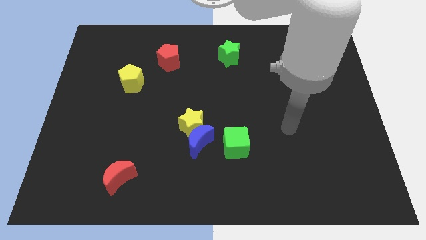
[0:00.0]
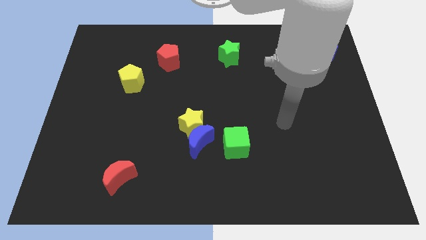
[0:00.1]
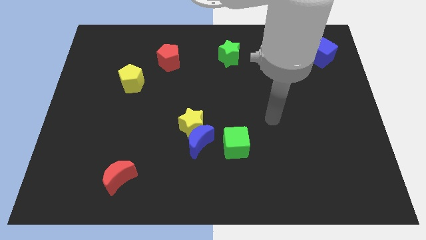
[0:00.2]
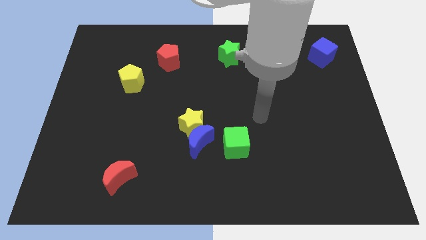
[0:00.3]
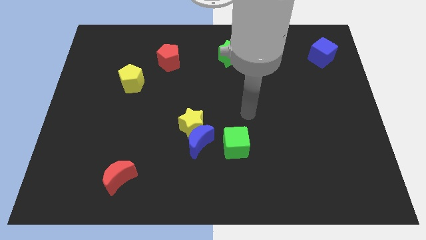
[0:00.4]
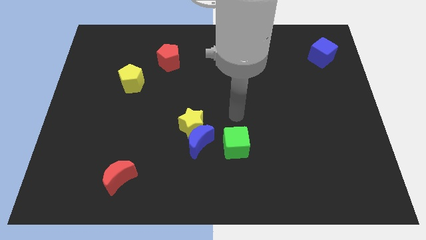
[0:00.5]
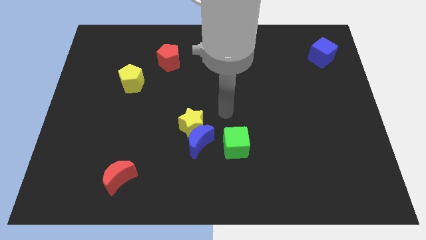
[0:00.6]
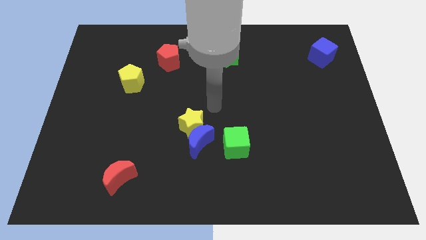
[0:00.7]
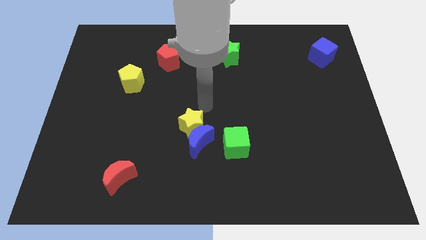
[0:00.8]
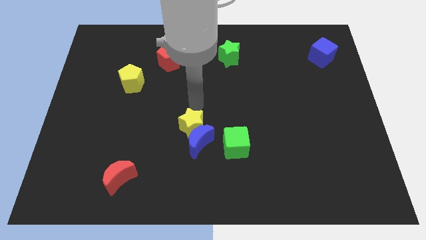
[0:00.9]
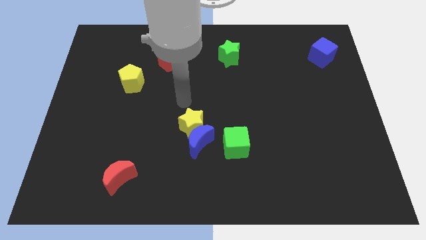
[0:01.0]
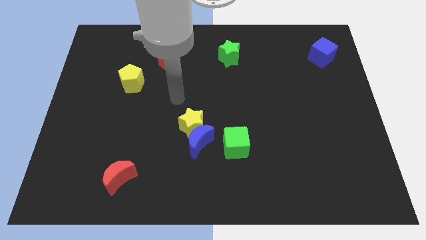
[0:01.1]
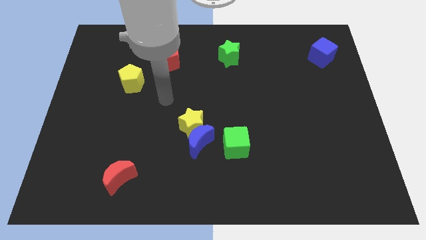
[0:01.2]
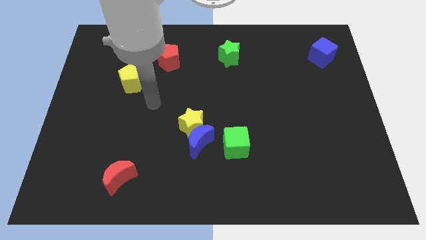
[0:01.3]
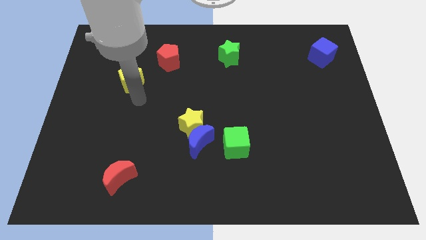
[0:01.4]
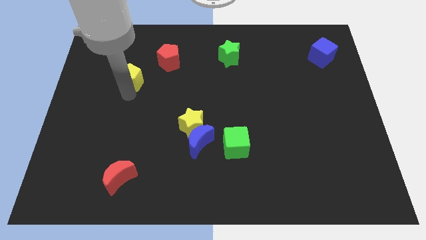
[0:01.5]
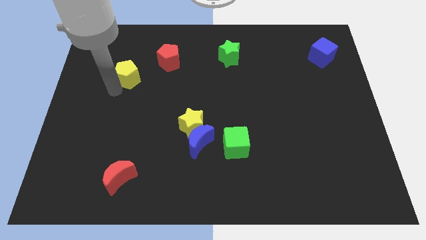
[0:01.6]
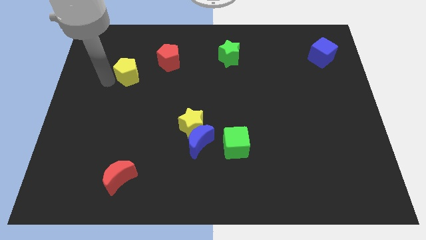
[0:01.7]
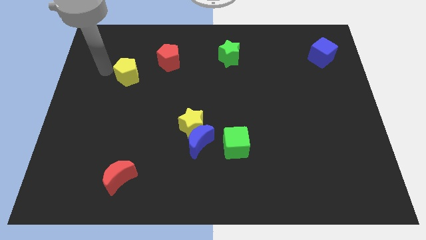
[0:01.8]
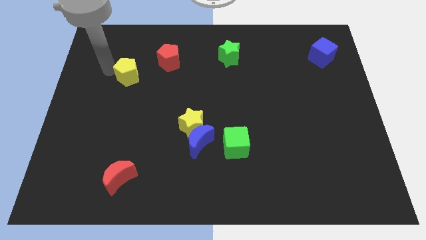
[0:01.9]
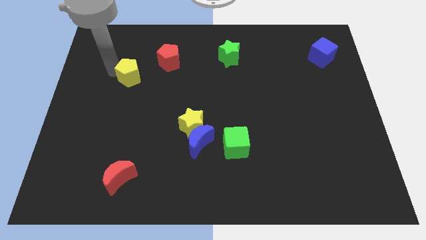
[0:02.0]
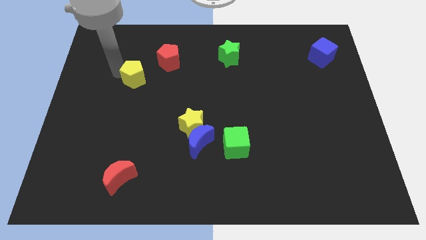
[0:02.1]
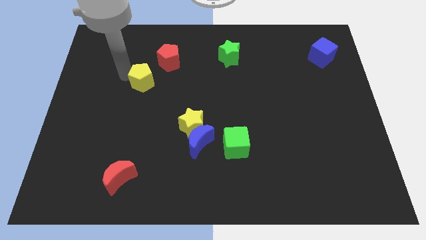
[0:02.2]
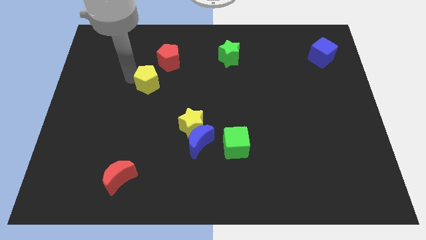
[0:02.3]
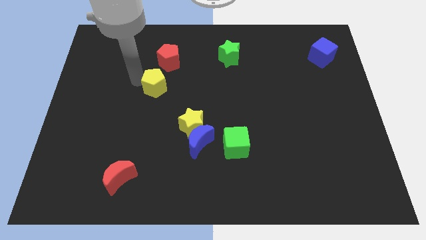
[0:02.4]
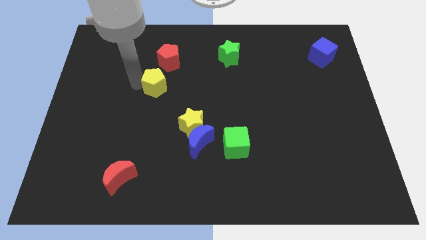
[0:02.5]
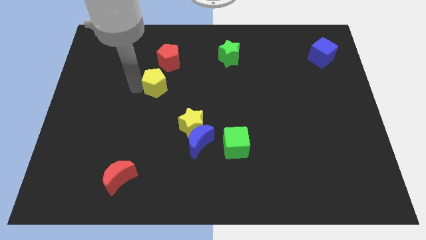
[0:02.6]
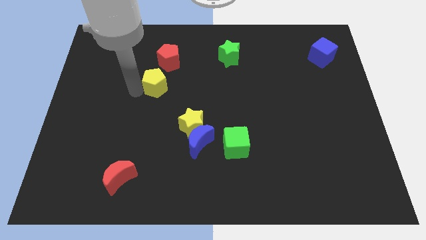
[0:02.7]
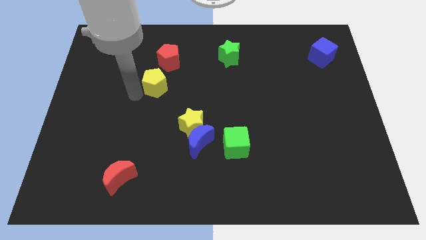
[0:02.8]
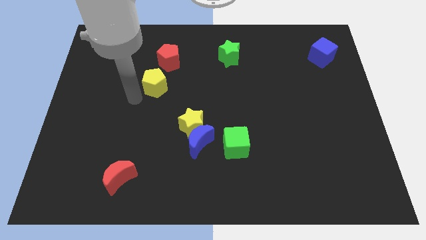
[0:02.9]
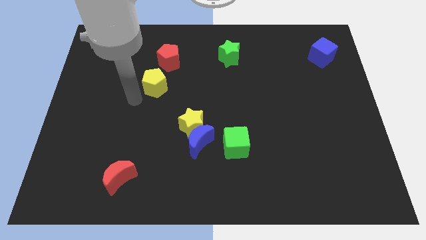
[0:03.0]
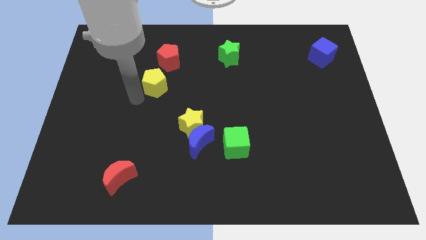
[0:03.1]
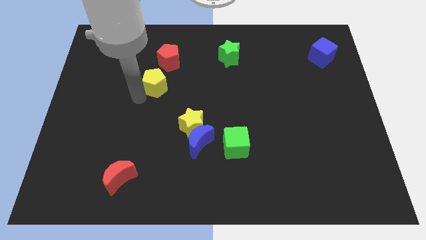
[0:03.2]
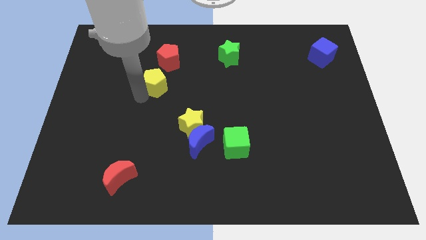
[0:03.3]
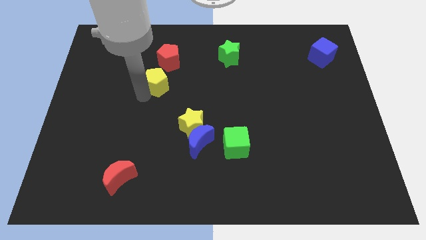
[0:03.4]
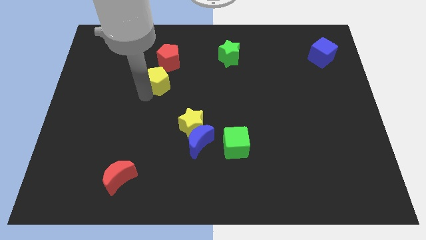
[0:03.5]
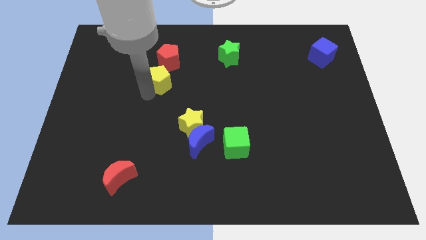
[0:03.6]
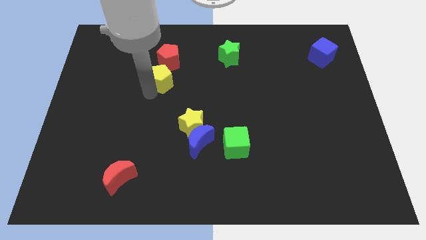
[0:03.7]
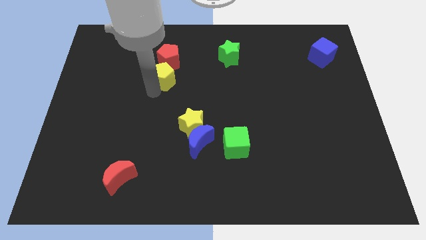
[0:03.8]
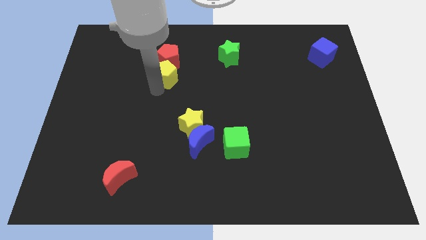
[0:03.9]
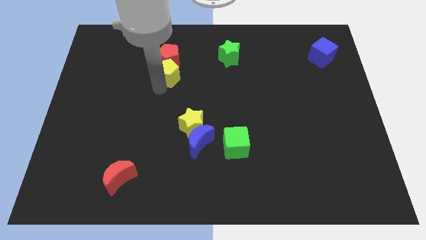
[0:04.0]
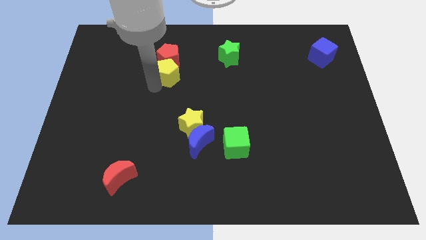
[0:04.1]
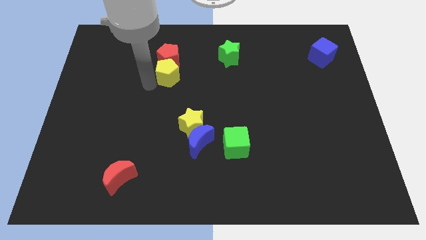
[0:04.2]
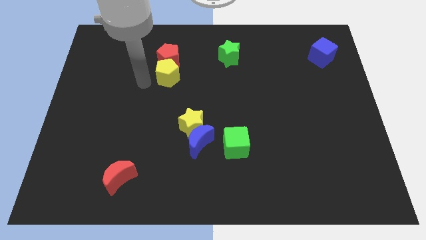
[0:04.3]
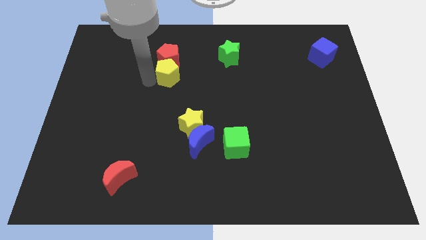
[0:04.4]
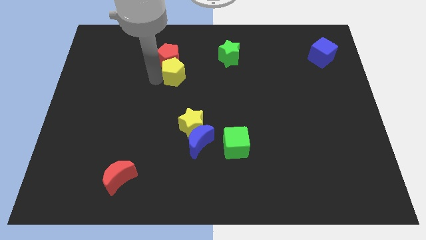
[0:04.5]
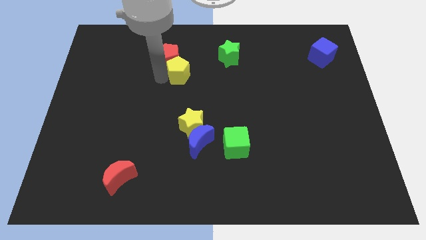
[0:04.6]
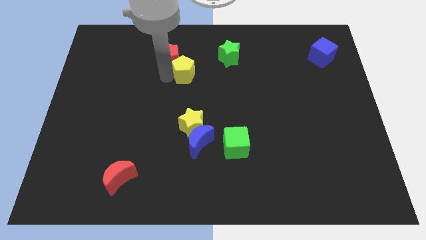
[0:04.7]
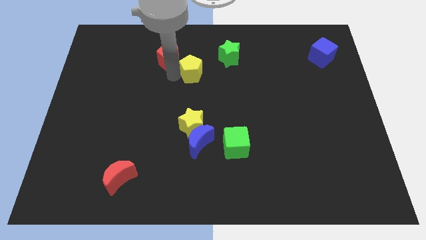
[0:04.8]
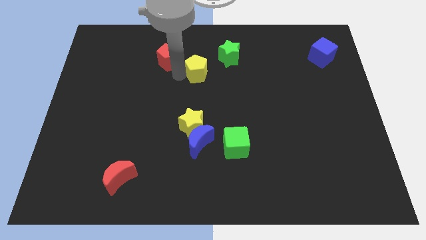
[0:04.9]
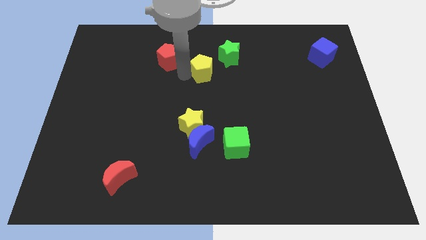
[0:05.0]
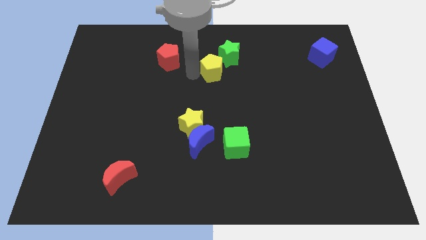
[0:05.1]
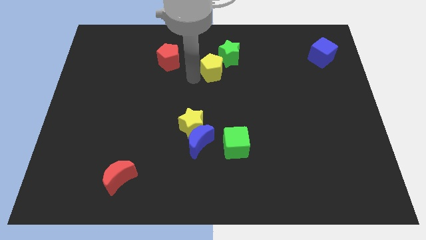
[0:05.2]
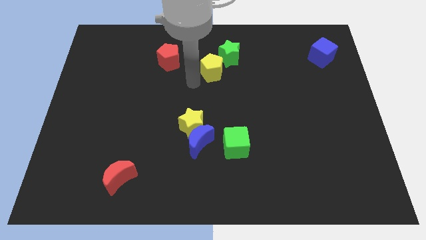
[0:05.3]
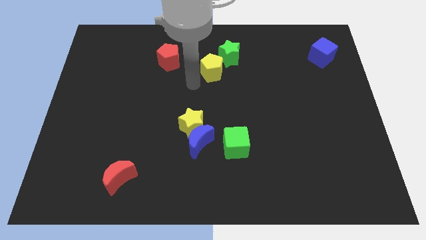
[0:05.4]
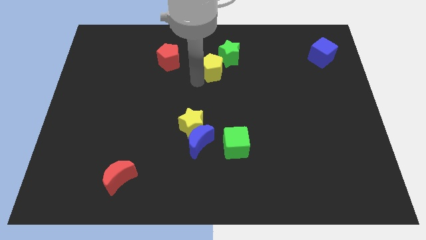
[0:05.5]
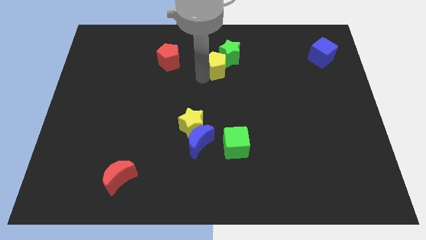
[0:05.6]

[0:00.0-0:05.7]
move the yellow pentagon close to the green star

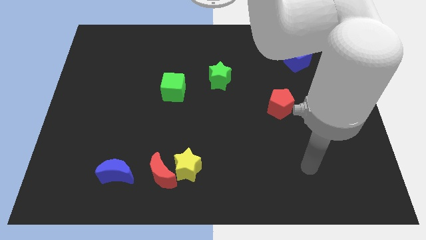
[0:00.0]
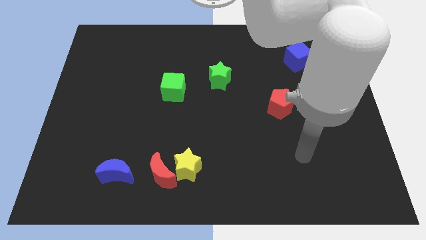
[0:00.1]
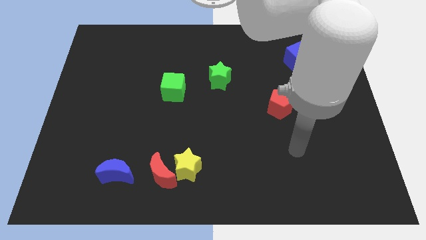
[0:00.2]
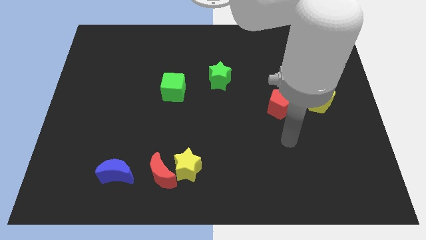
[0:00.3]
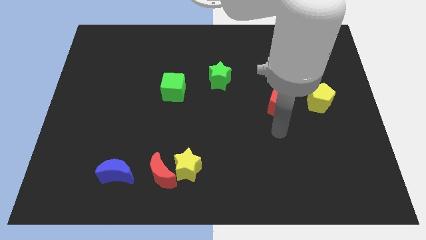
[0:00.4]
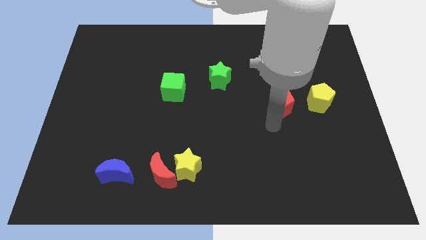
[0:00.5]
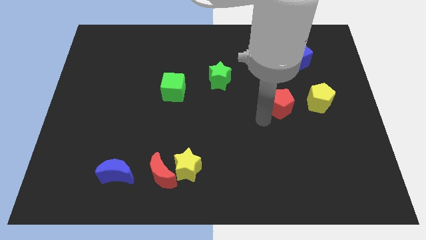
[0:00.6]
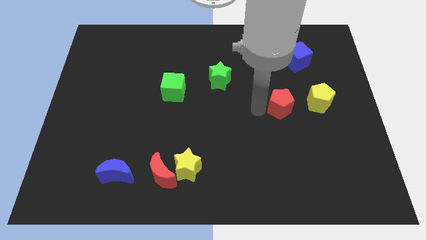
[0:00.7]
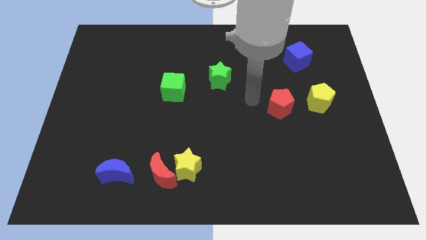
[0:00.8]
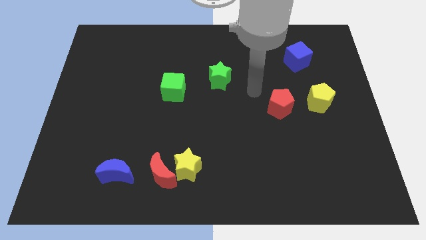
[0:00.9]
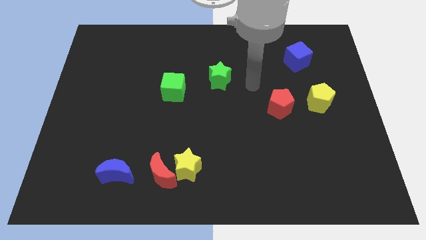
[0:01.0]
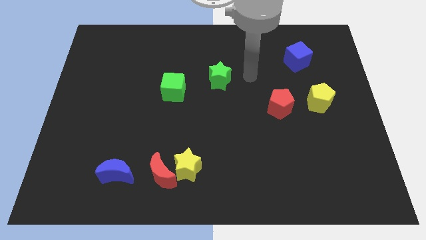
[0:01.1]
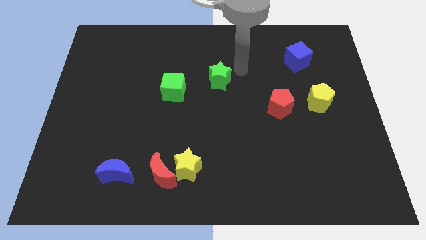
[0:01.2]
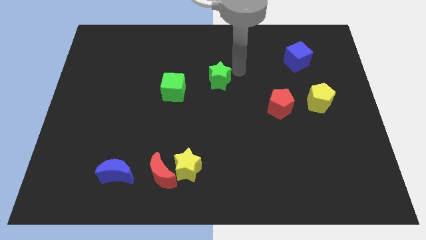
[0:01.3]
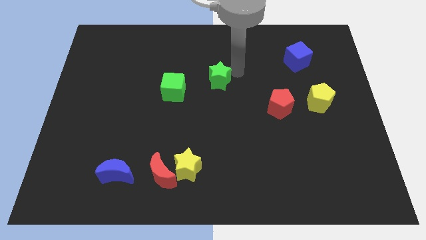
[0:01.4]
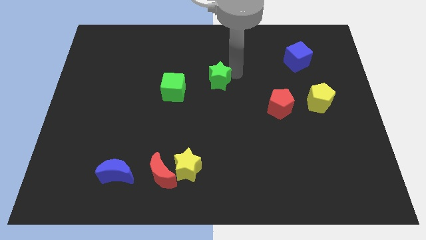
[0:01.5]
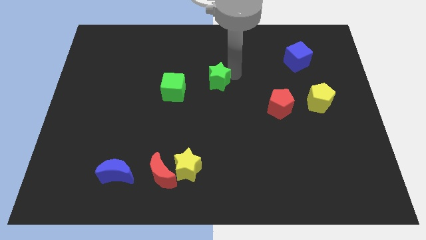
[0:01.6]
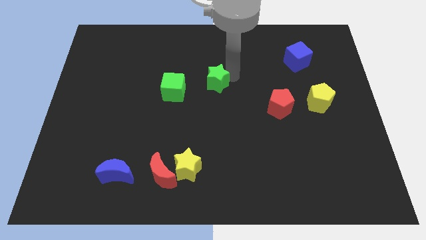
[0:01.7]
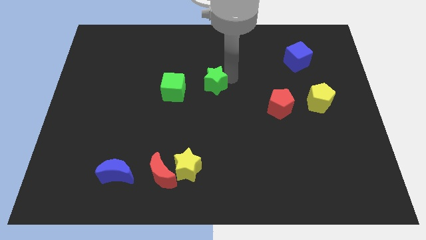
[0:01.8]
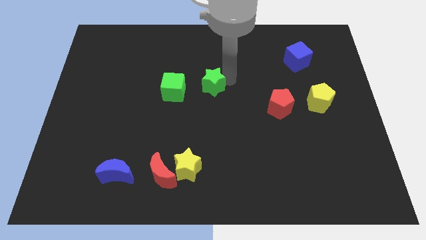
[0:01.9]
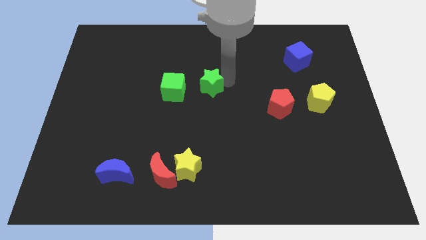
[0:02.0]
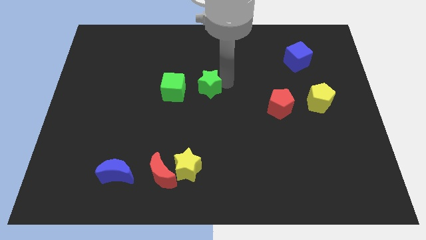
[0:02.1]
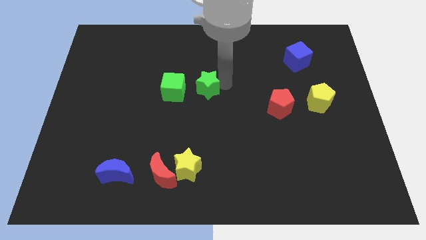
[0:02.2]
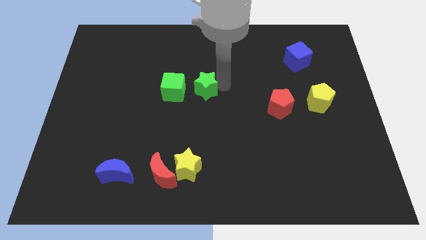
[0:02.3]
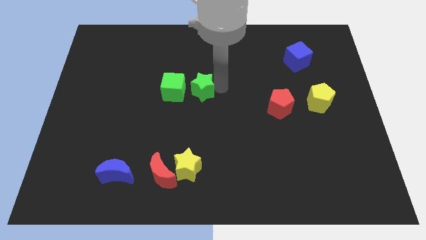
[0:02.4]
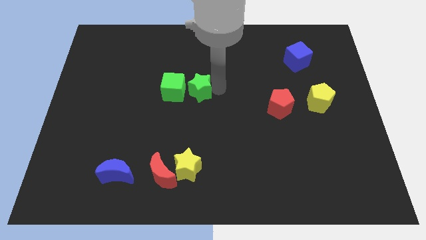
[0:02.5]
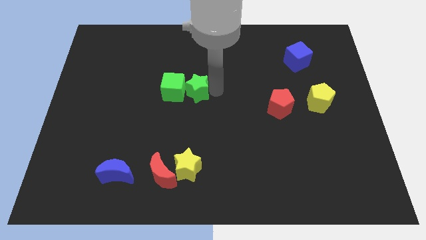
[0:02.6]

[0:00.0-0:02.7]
slide the green star next to the green cube

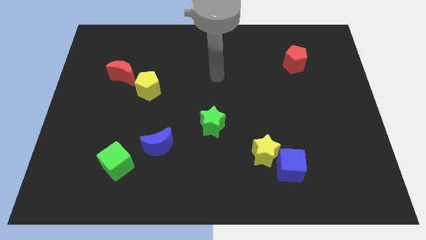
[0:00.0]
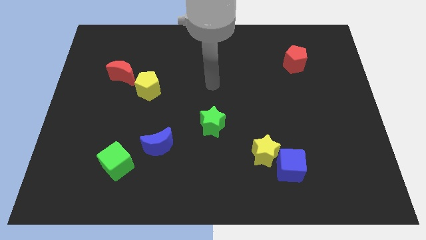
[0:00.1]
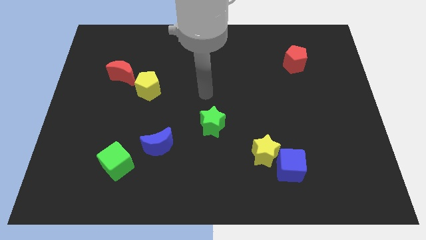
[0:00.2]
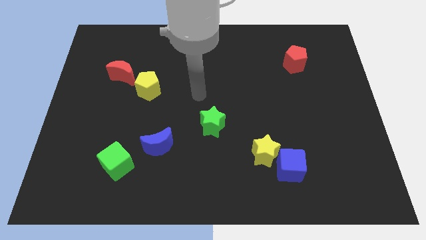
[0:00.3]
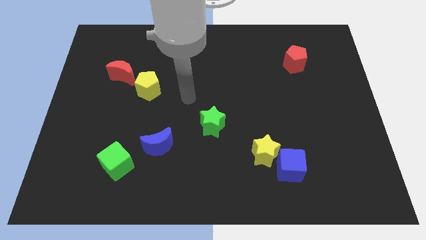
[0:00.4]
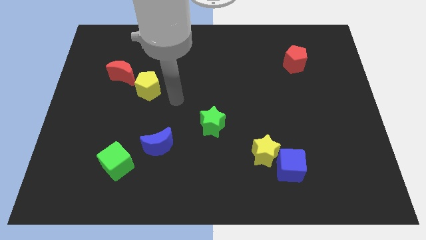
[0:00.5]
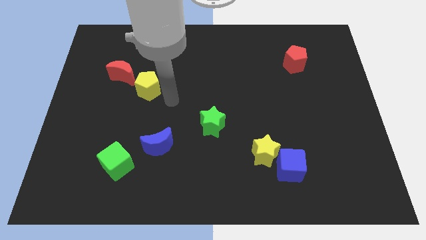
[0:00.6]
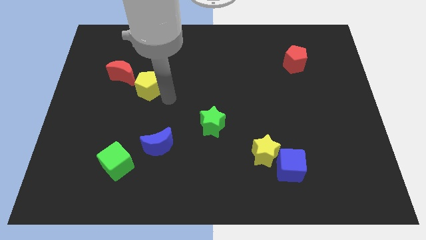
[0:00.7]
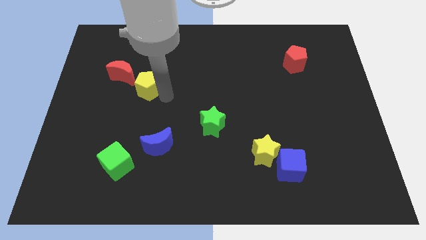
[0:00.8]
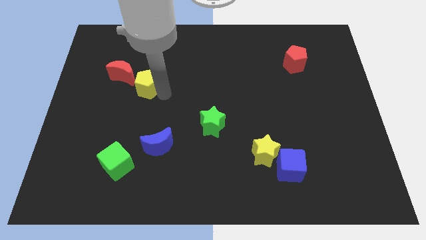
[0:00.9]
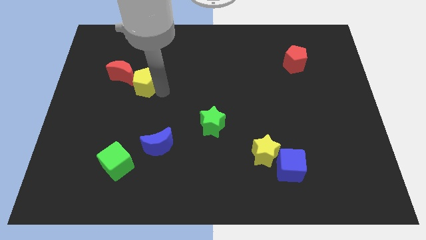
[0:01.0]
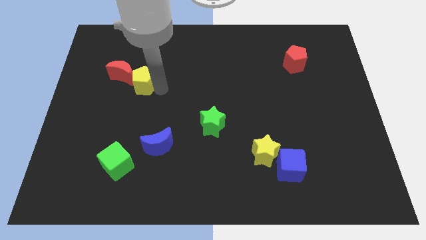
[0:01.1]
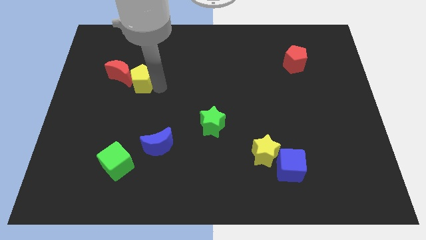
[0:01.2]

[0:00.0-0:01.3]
move the yellow pentagon next to the red moon
